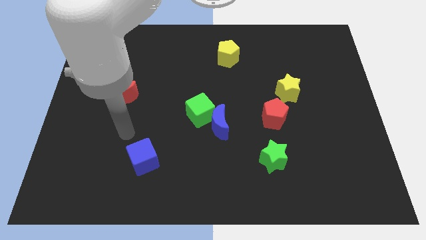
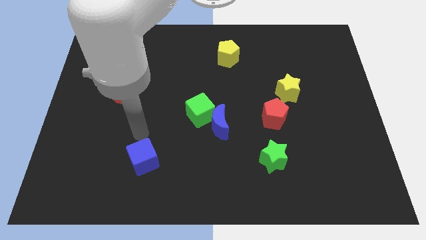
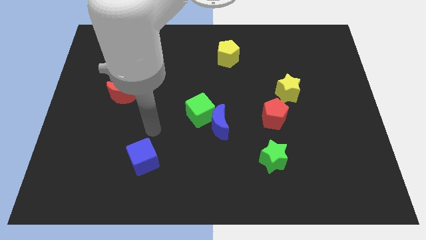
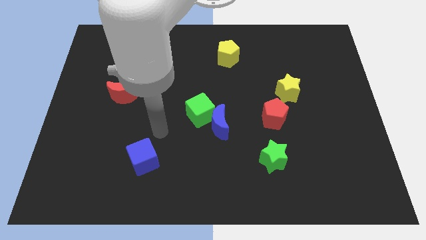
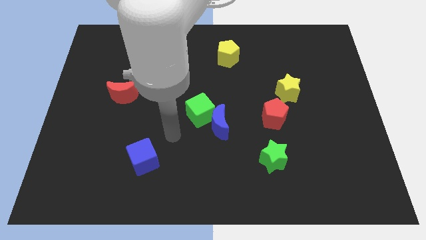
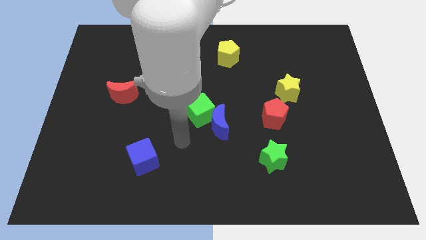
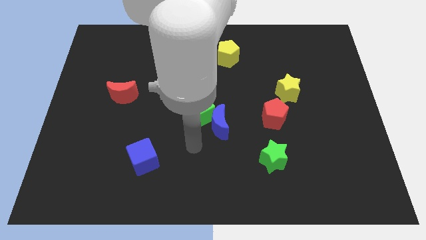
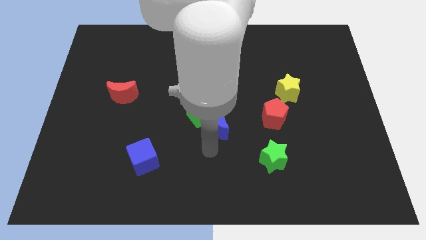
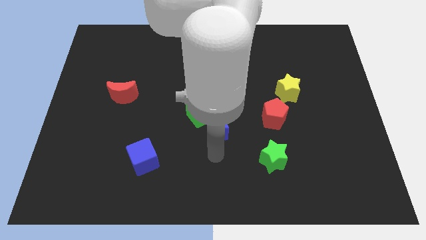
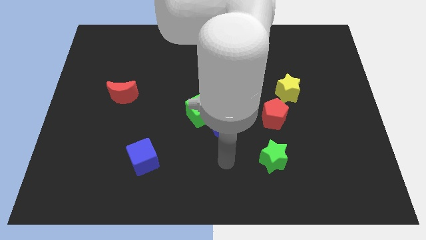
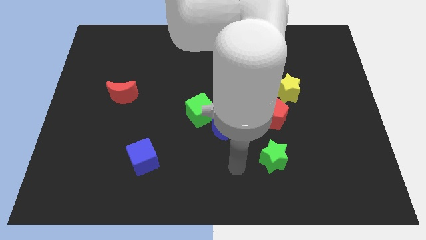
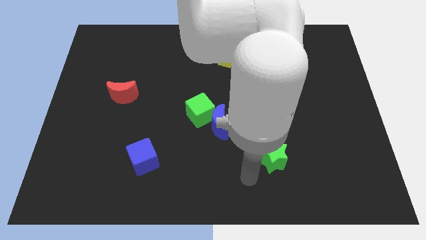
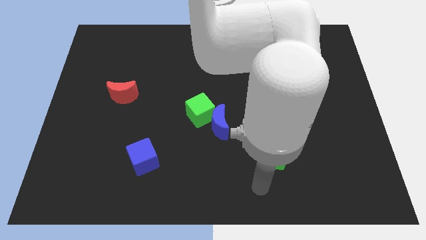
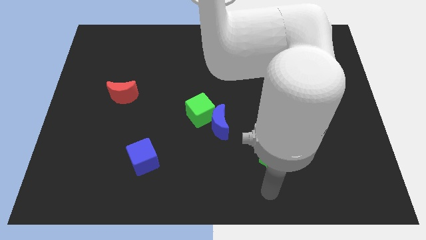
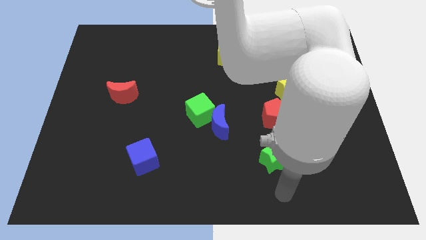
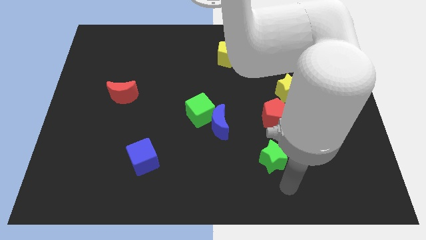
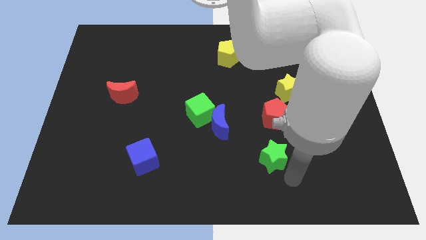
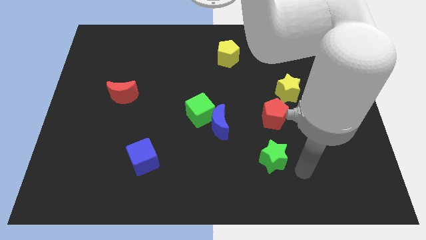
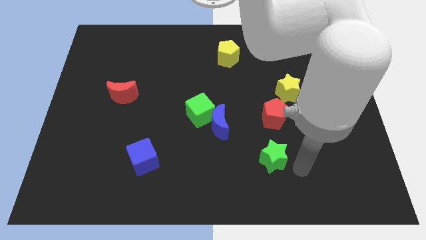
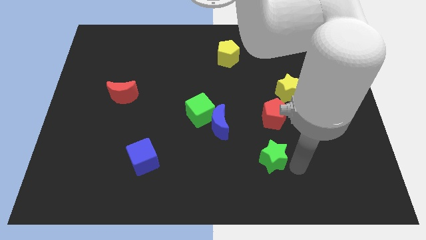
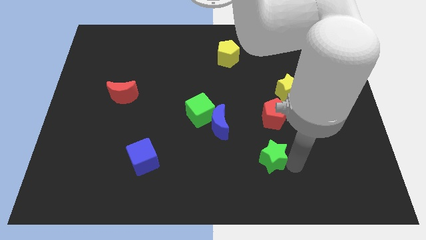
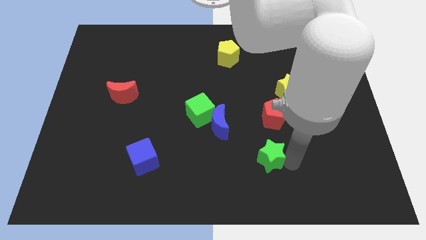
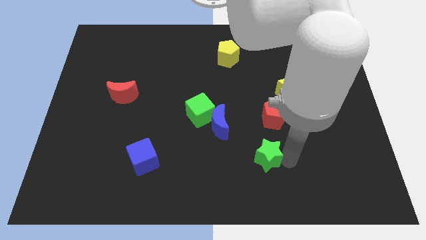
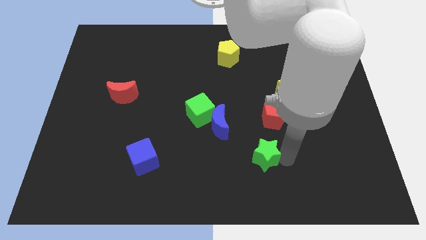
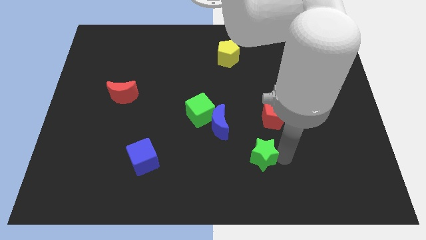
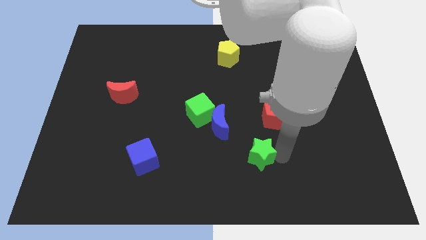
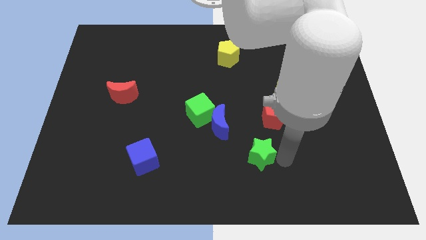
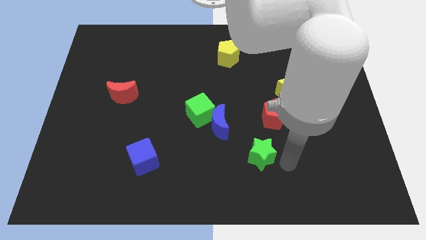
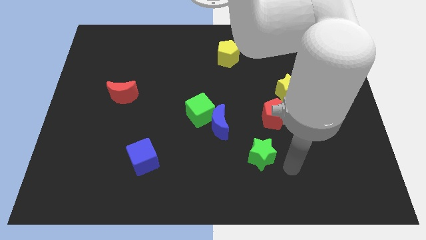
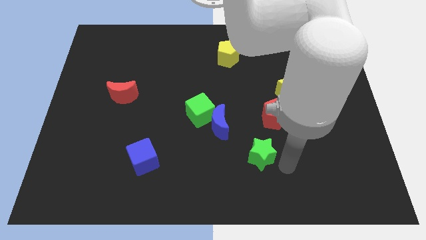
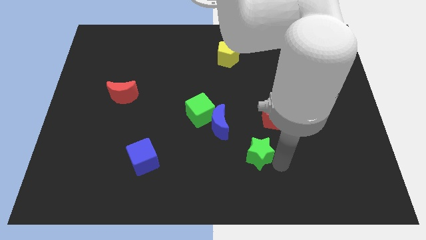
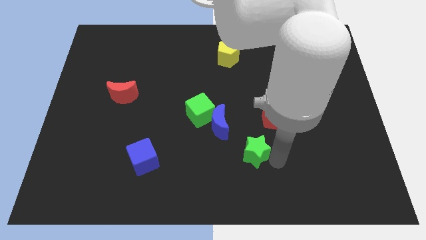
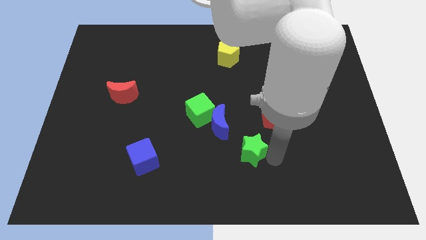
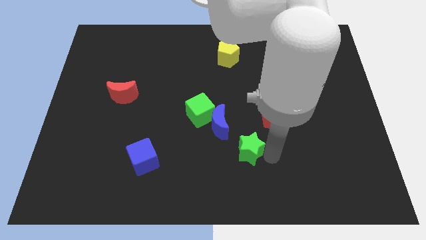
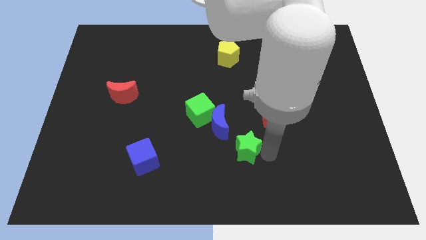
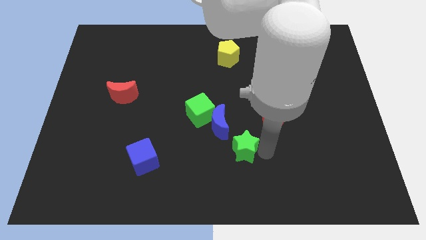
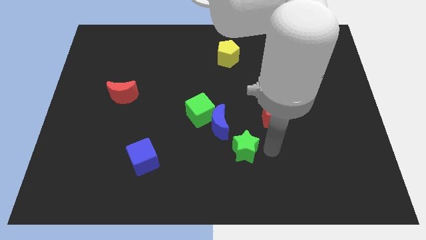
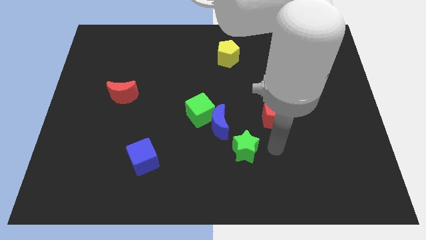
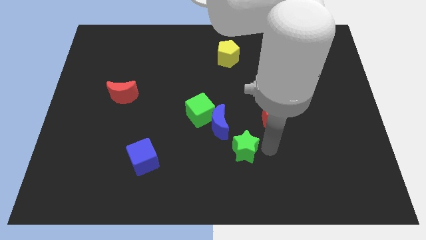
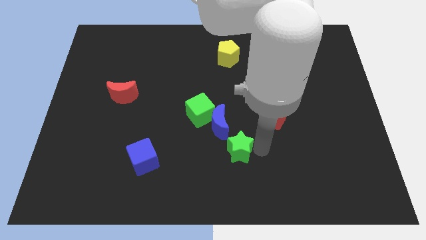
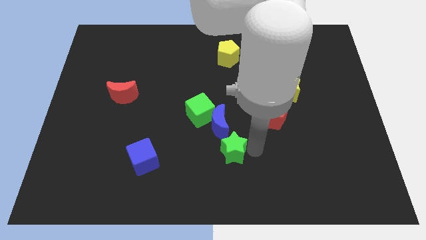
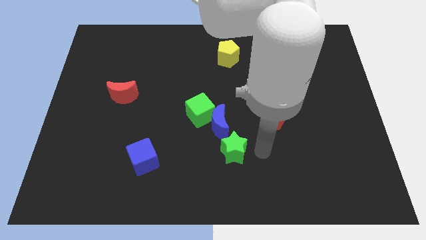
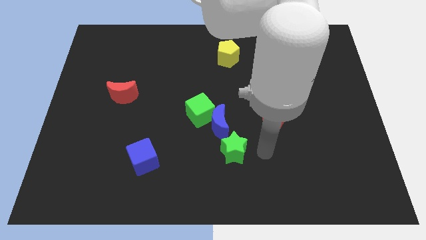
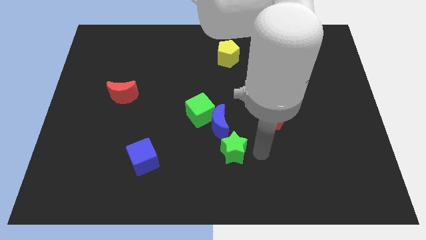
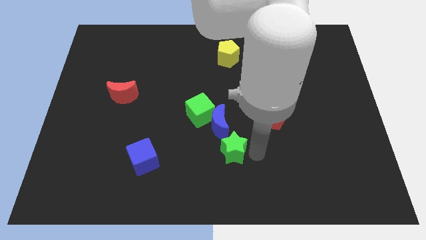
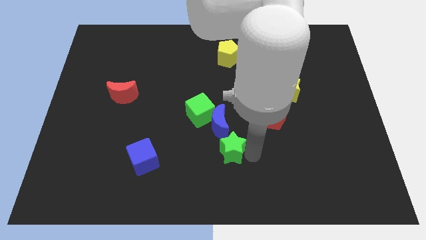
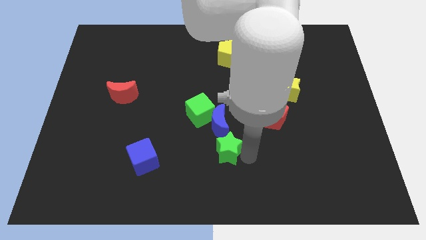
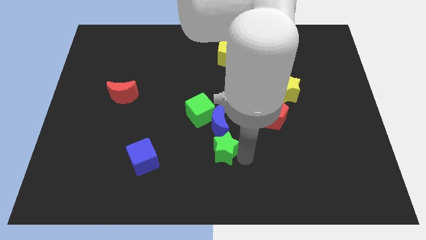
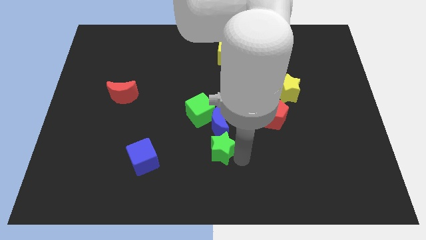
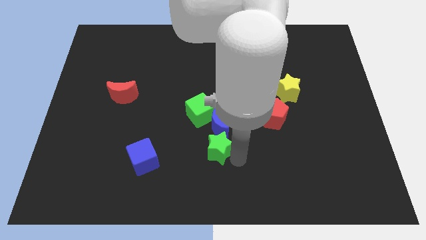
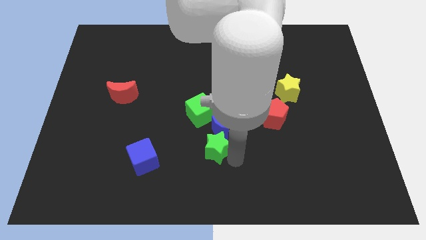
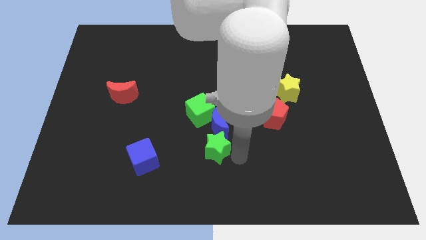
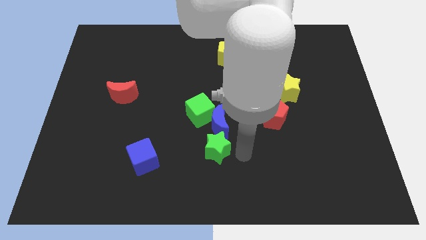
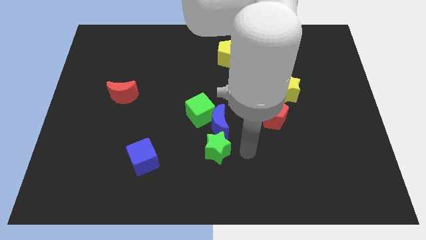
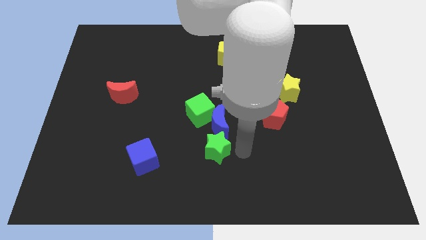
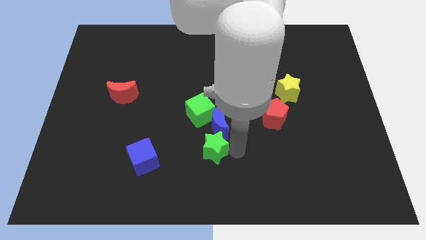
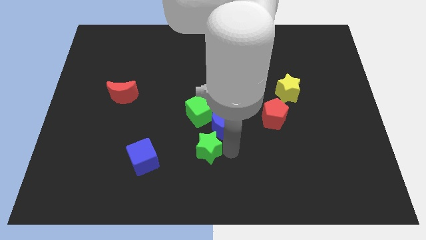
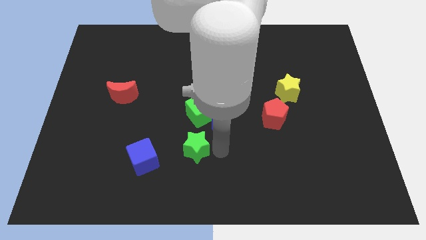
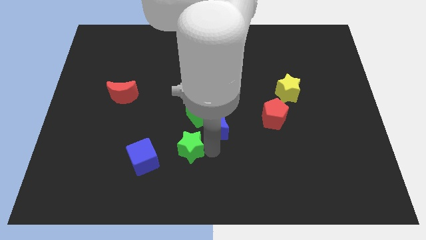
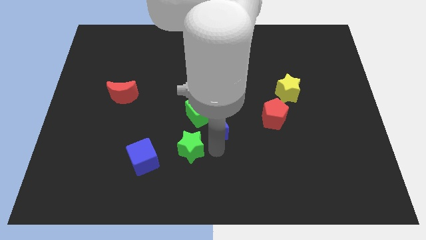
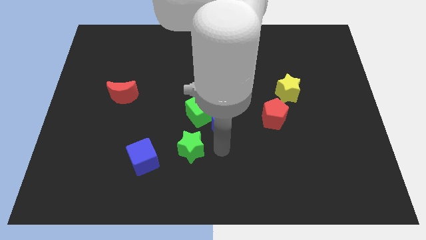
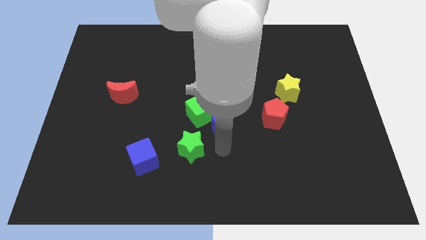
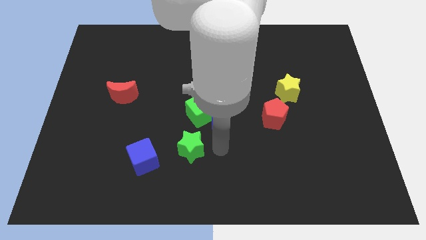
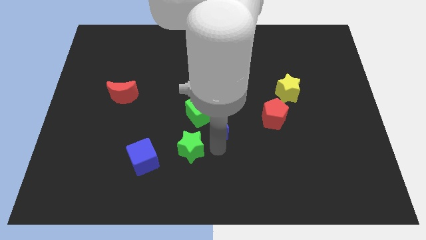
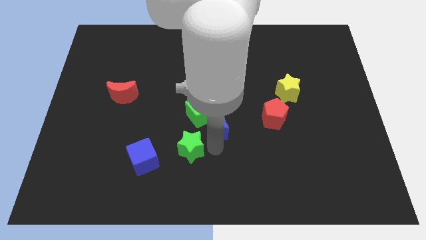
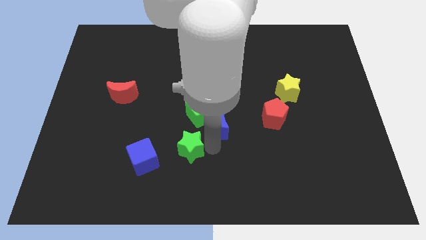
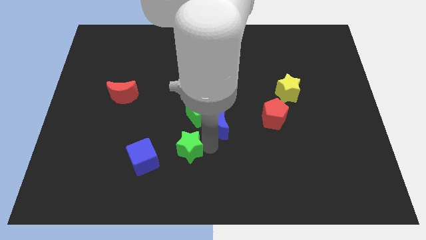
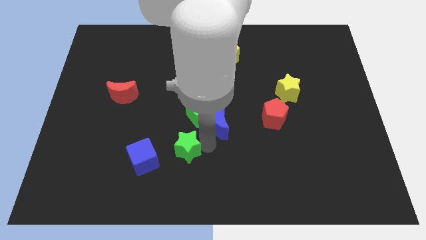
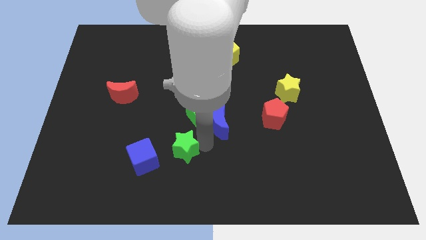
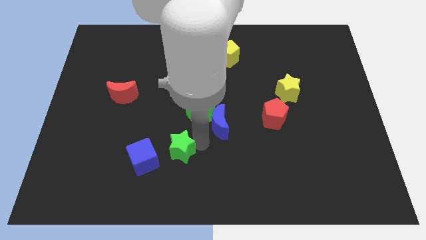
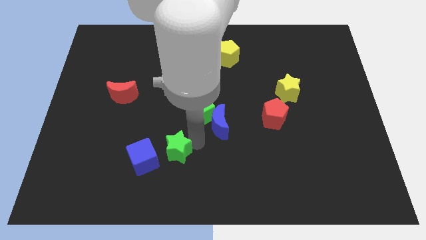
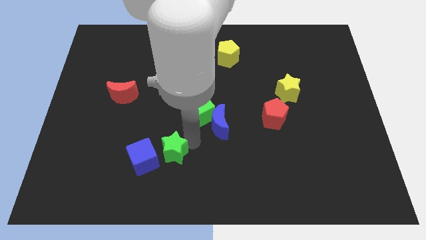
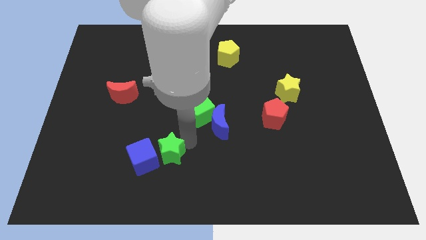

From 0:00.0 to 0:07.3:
slide the green star towards the blue cube

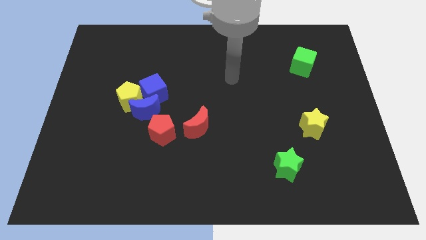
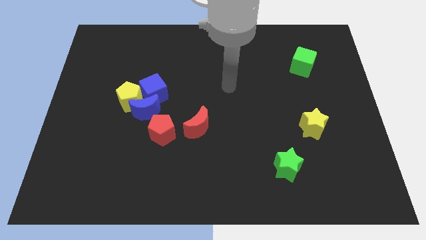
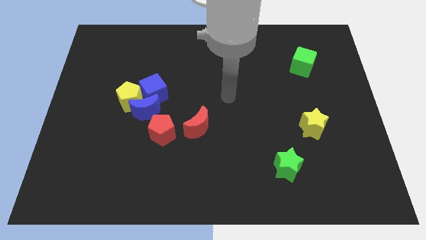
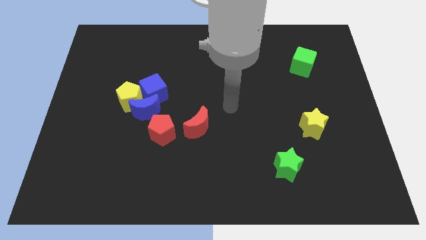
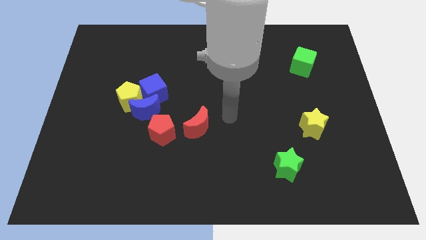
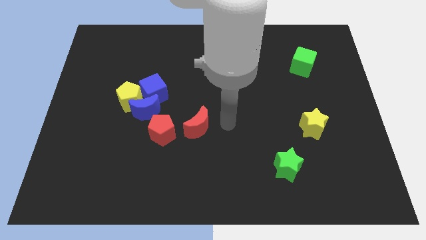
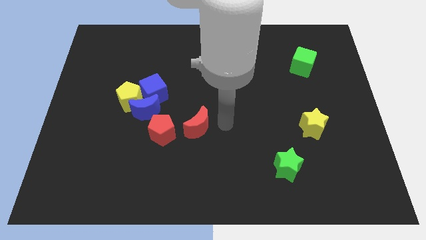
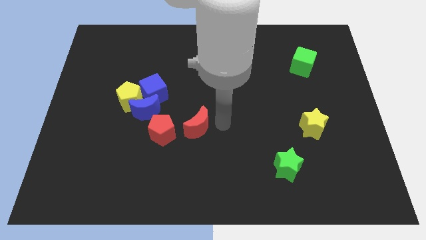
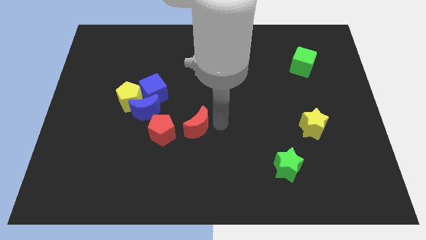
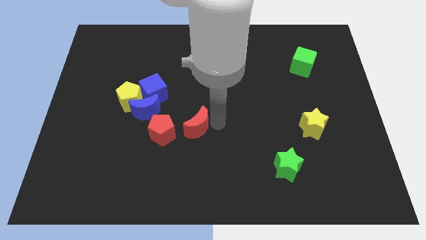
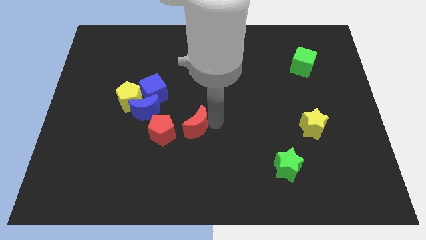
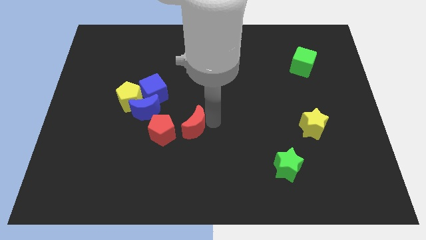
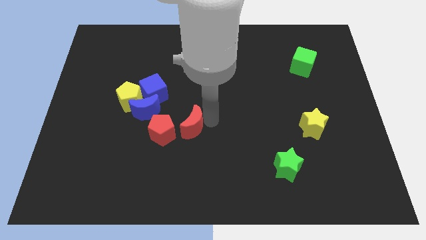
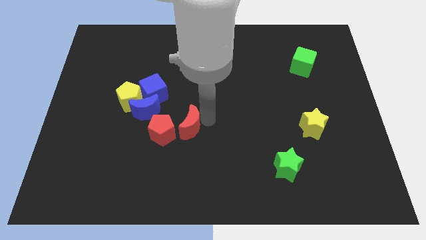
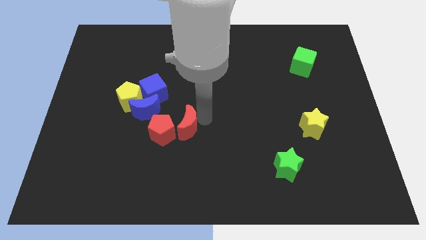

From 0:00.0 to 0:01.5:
put the red moon next to the red pentagon
